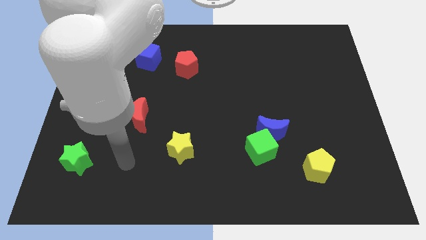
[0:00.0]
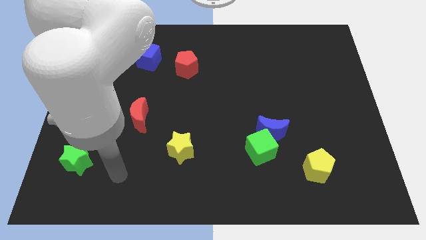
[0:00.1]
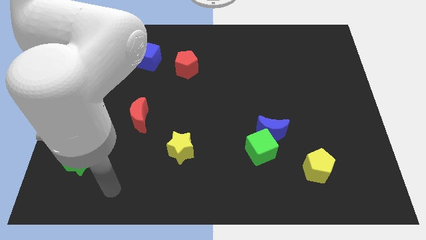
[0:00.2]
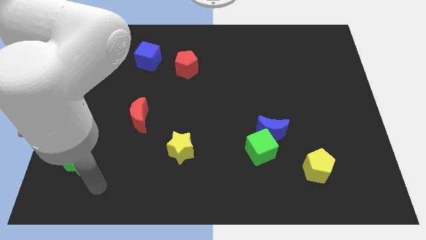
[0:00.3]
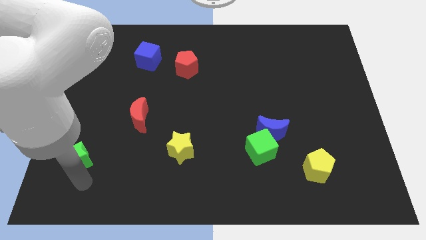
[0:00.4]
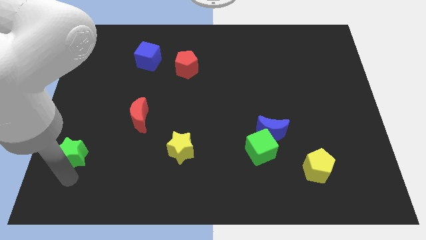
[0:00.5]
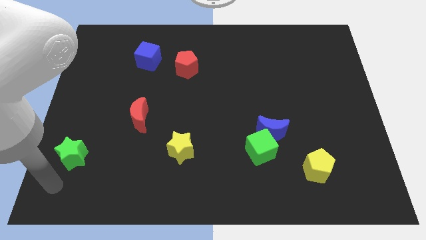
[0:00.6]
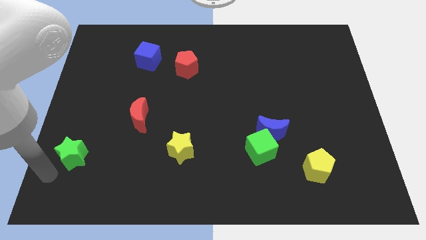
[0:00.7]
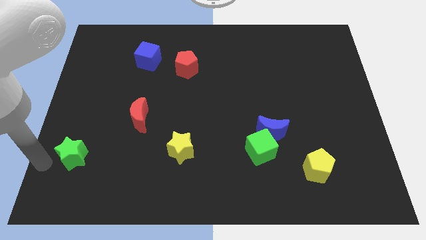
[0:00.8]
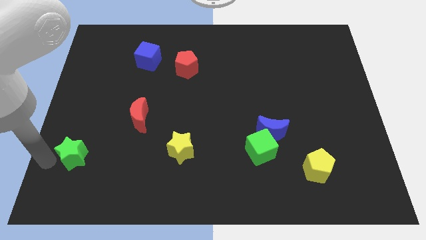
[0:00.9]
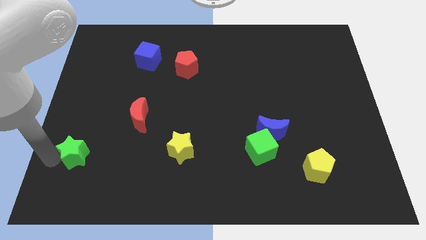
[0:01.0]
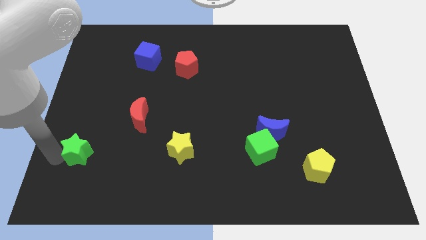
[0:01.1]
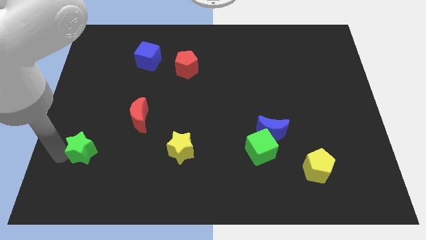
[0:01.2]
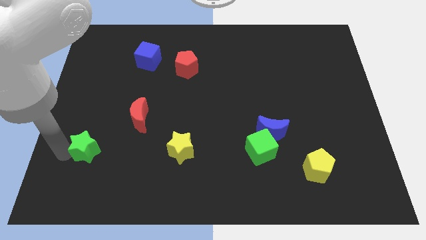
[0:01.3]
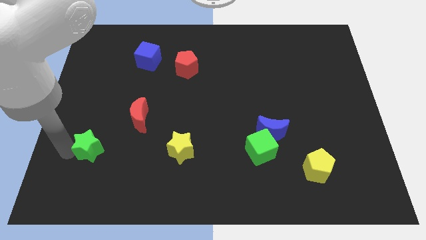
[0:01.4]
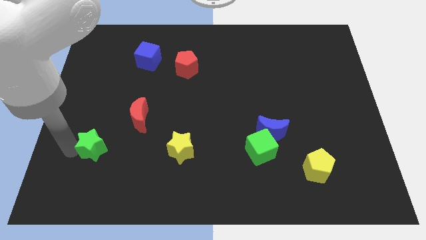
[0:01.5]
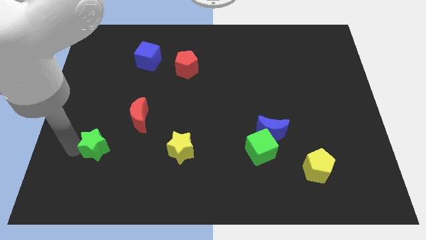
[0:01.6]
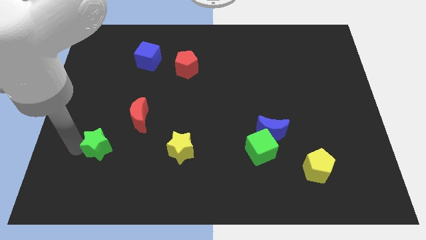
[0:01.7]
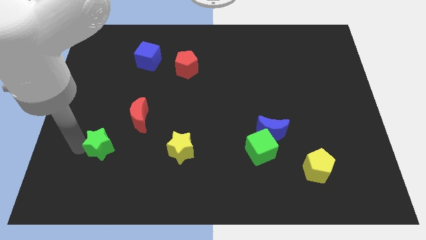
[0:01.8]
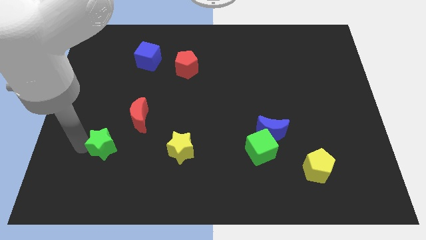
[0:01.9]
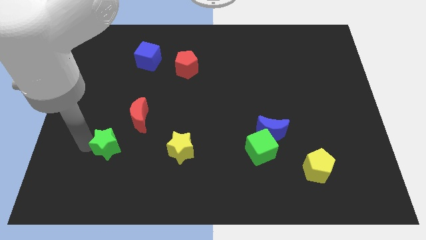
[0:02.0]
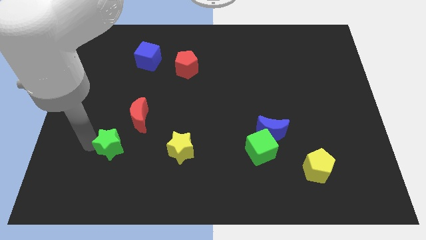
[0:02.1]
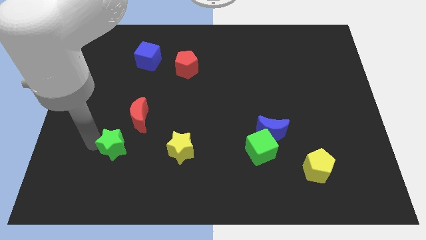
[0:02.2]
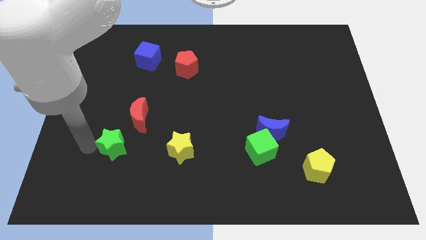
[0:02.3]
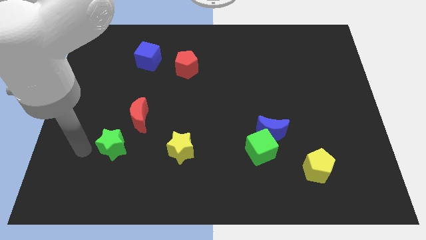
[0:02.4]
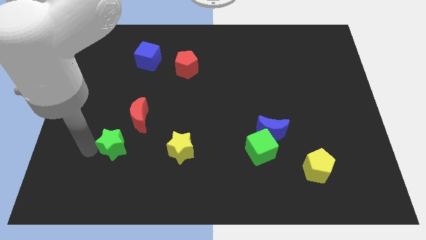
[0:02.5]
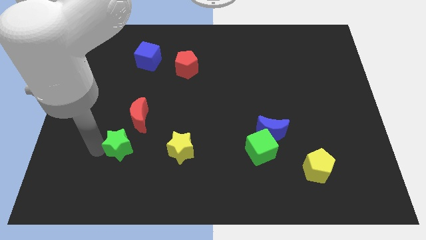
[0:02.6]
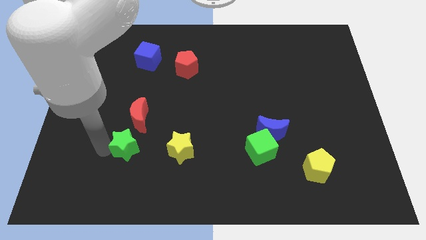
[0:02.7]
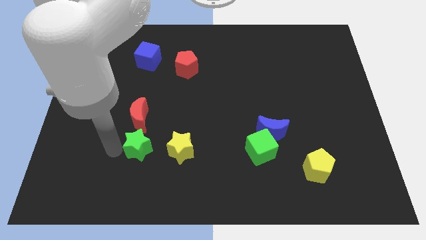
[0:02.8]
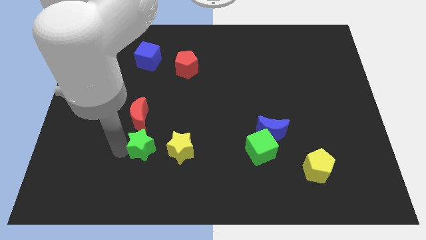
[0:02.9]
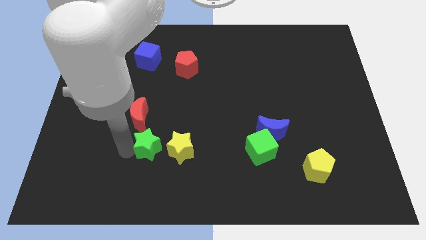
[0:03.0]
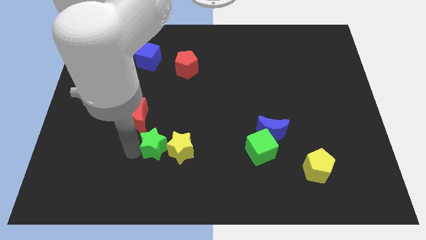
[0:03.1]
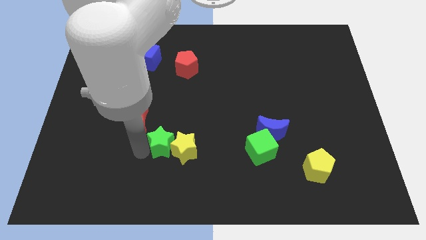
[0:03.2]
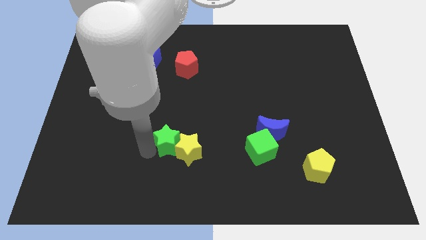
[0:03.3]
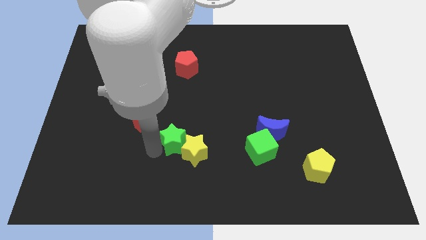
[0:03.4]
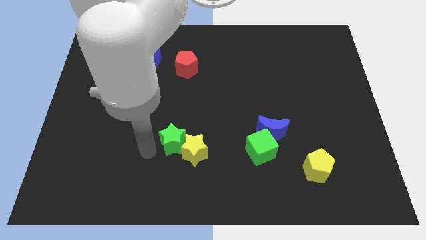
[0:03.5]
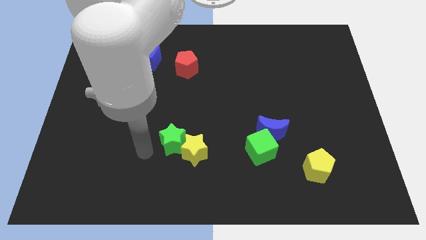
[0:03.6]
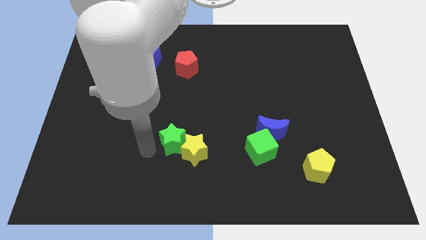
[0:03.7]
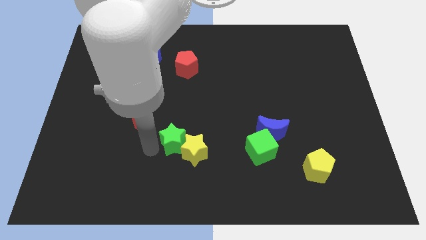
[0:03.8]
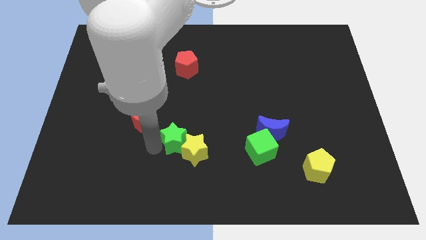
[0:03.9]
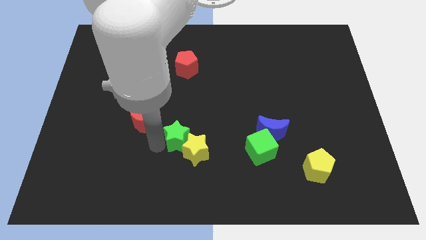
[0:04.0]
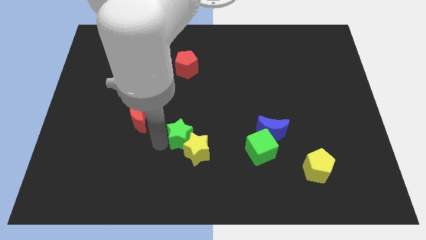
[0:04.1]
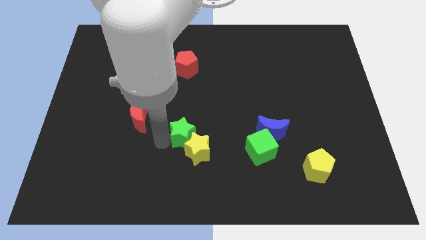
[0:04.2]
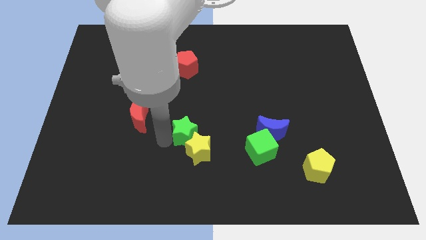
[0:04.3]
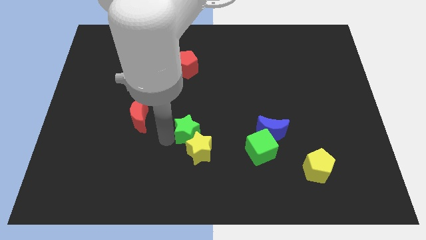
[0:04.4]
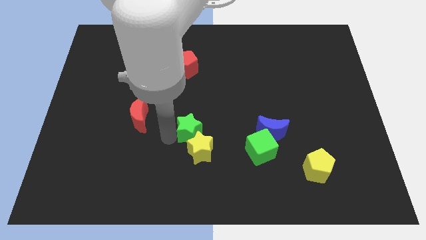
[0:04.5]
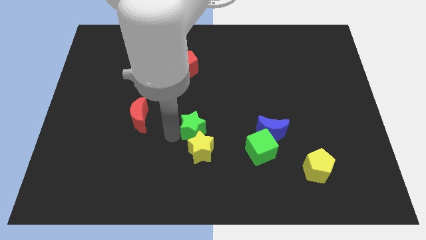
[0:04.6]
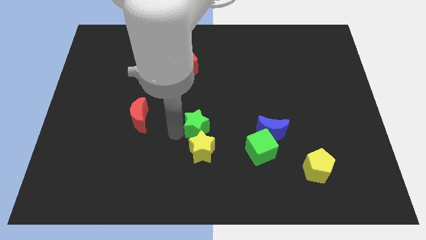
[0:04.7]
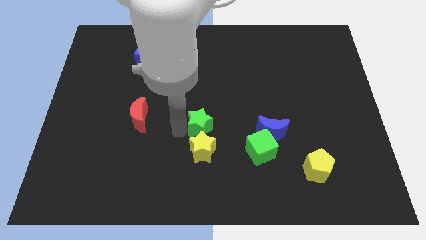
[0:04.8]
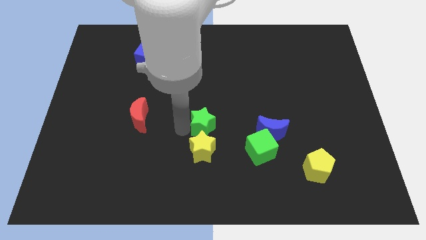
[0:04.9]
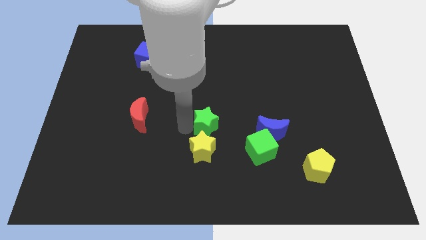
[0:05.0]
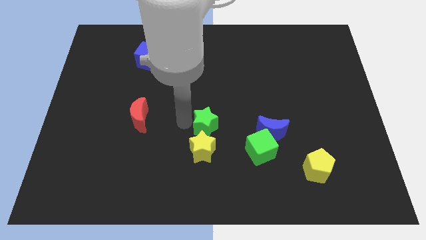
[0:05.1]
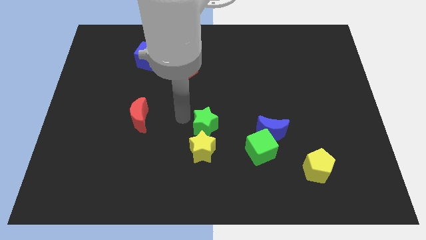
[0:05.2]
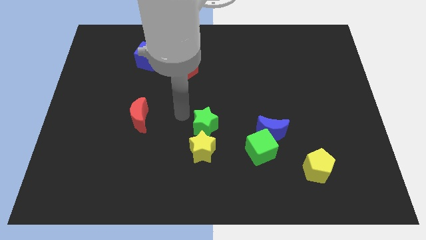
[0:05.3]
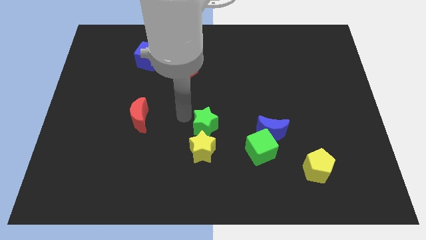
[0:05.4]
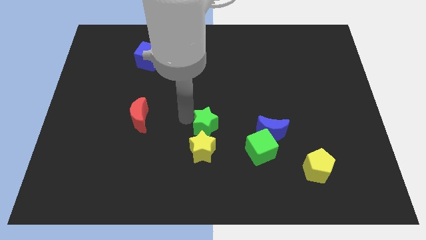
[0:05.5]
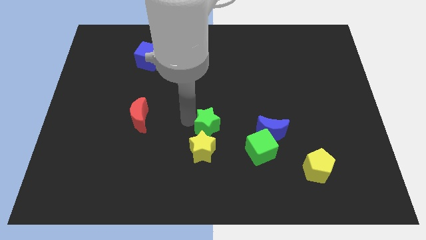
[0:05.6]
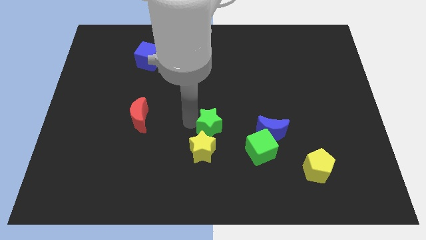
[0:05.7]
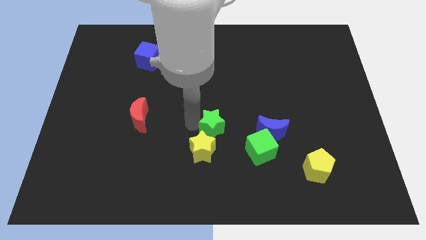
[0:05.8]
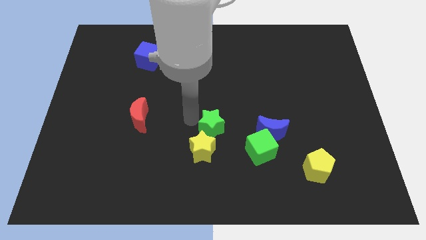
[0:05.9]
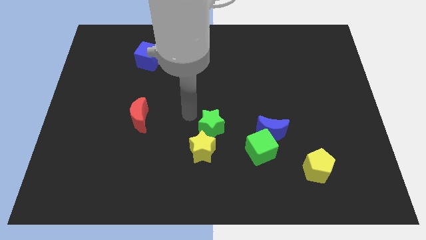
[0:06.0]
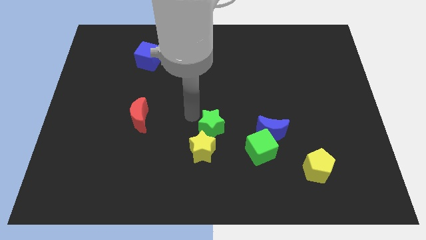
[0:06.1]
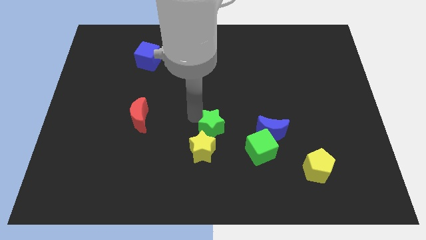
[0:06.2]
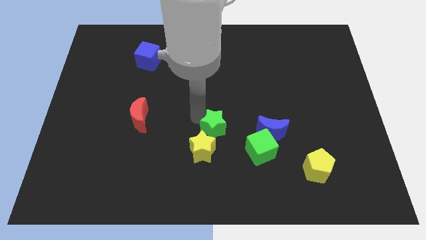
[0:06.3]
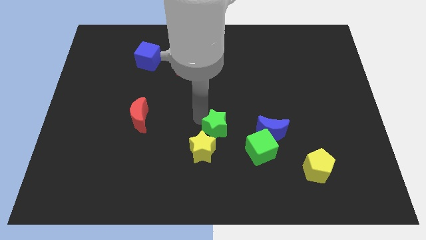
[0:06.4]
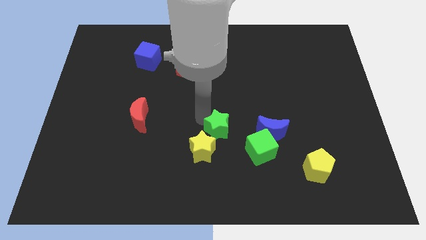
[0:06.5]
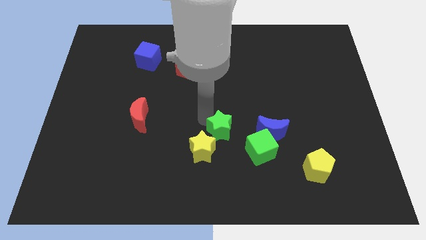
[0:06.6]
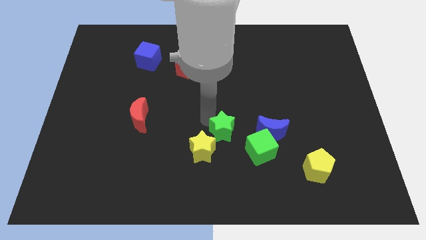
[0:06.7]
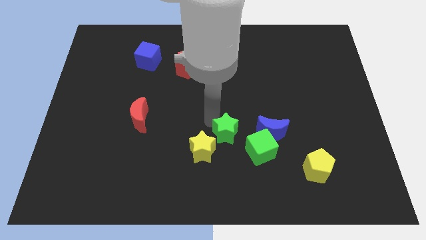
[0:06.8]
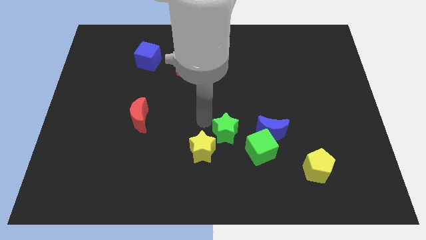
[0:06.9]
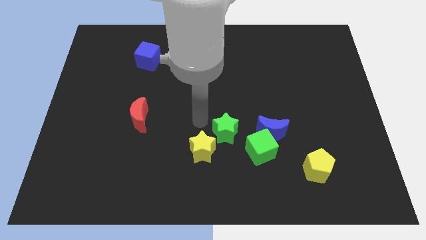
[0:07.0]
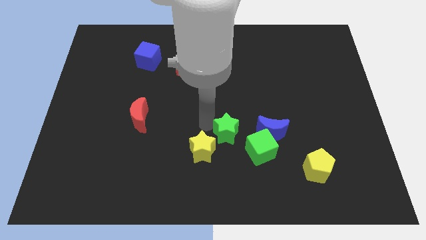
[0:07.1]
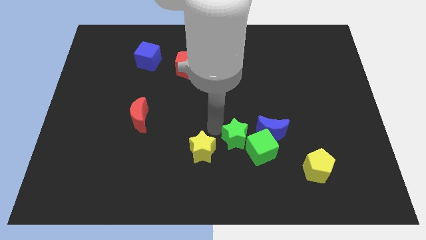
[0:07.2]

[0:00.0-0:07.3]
put the green star to the green cube
